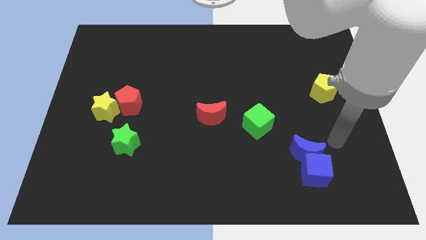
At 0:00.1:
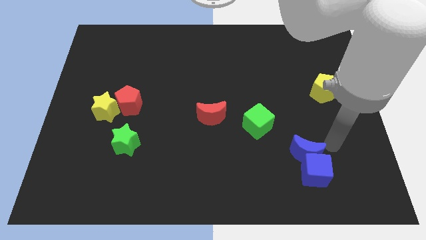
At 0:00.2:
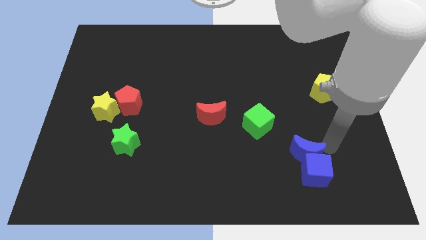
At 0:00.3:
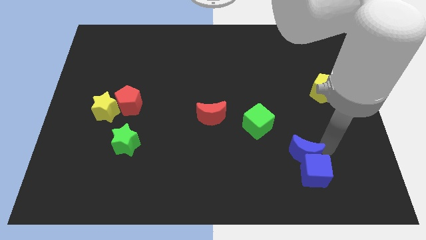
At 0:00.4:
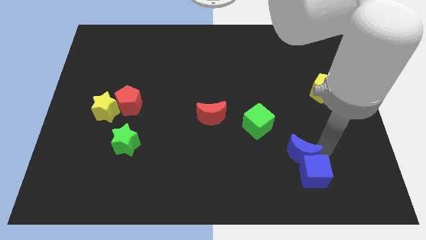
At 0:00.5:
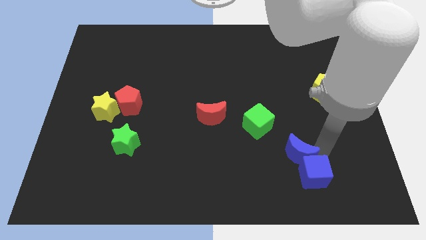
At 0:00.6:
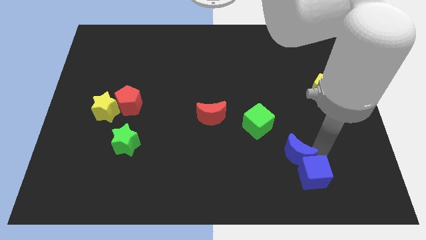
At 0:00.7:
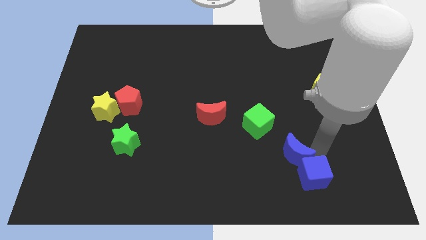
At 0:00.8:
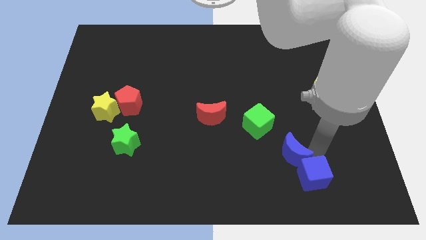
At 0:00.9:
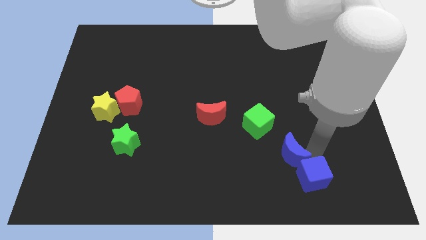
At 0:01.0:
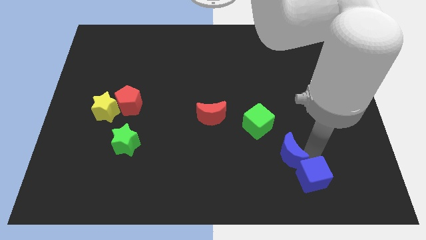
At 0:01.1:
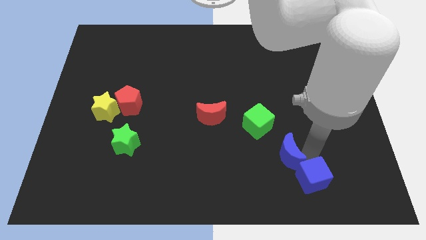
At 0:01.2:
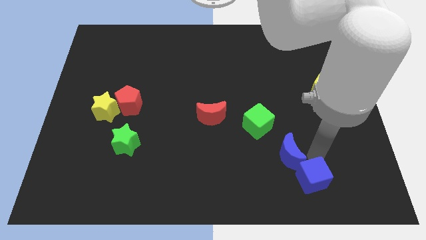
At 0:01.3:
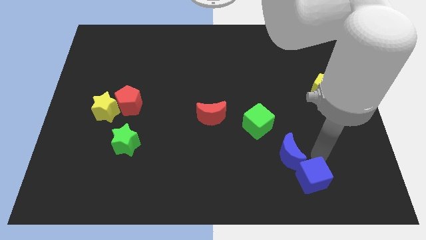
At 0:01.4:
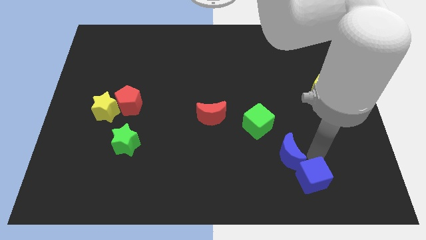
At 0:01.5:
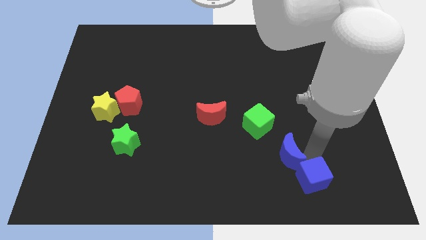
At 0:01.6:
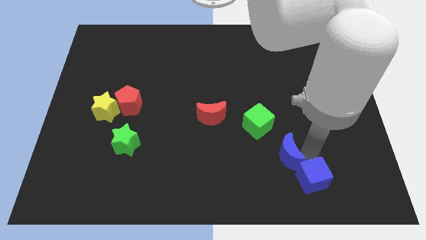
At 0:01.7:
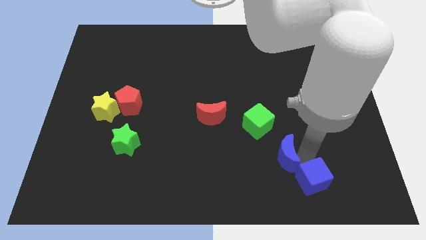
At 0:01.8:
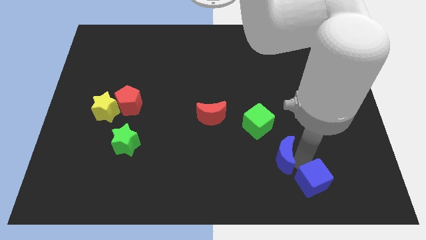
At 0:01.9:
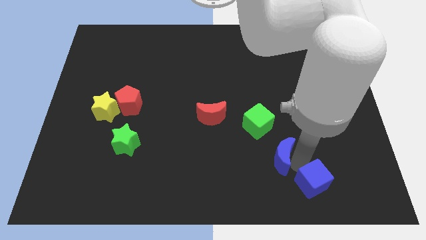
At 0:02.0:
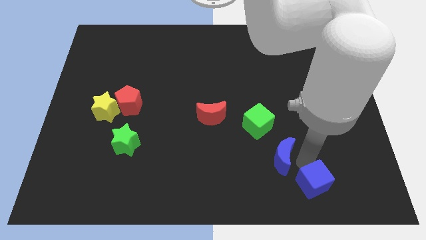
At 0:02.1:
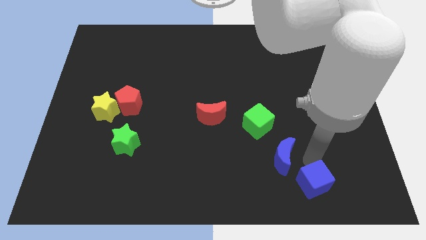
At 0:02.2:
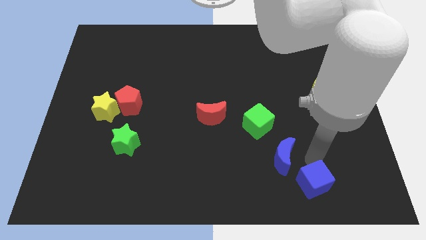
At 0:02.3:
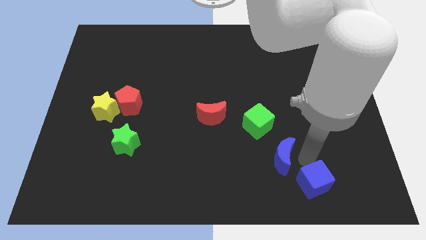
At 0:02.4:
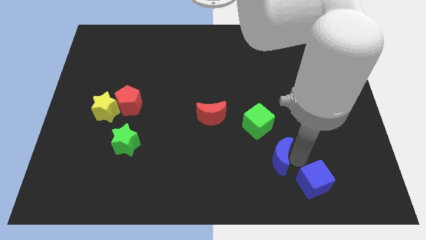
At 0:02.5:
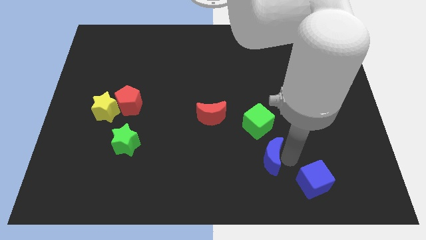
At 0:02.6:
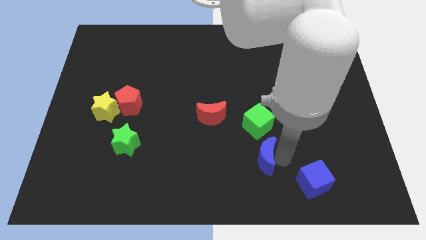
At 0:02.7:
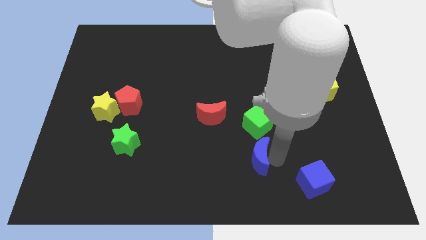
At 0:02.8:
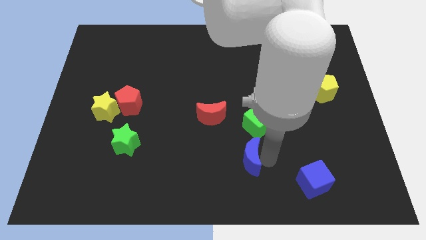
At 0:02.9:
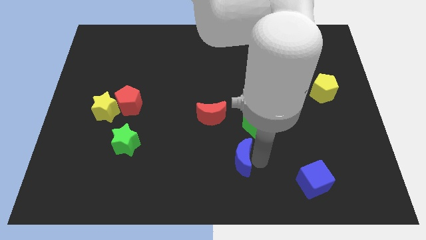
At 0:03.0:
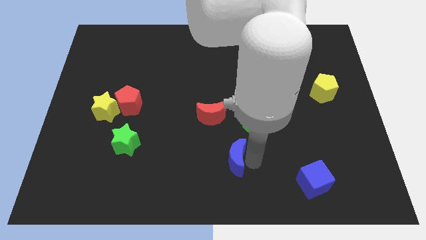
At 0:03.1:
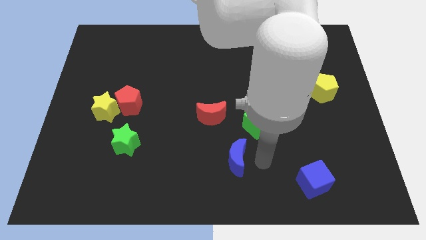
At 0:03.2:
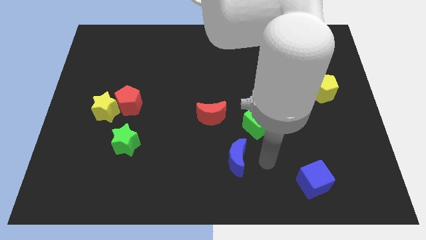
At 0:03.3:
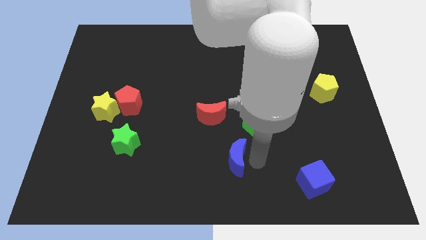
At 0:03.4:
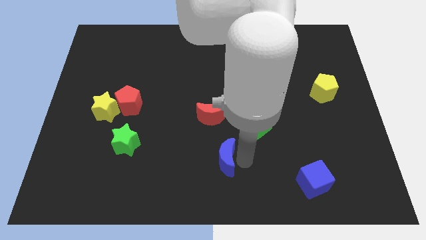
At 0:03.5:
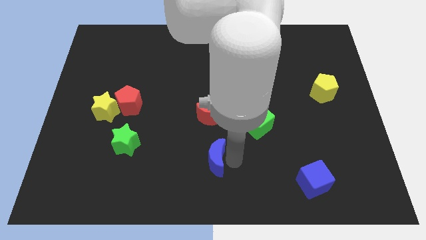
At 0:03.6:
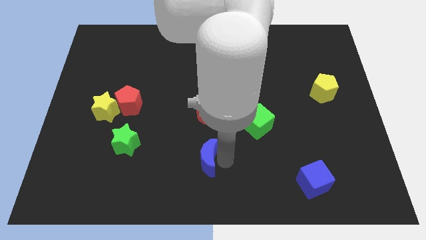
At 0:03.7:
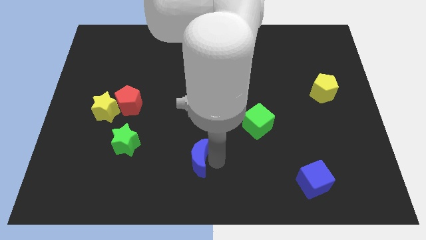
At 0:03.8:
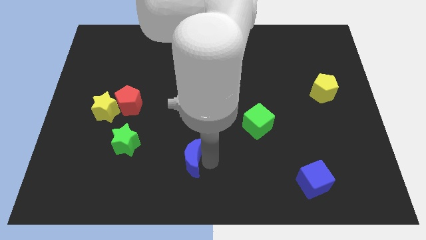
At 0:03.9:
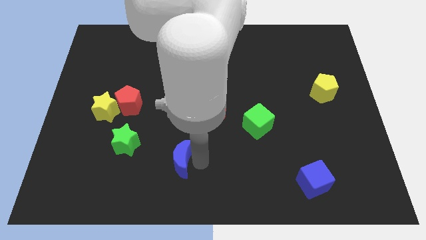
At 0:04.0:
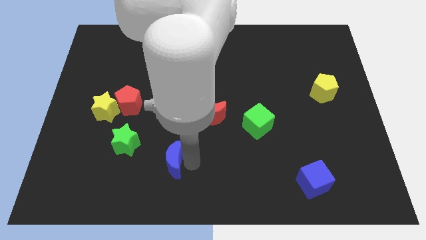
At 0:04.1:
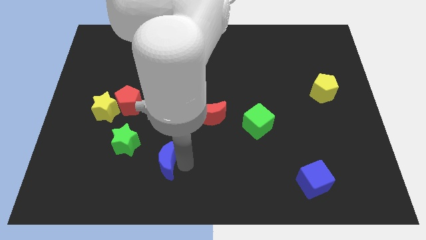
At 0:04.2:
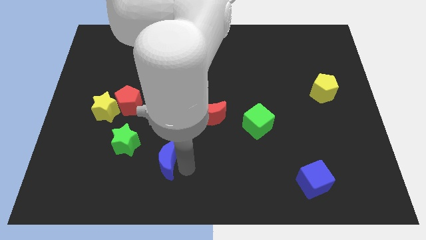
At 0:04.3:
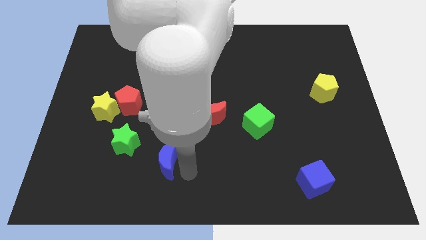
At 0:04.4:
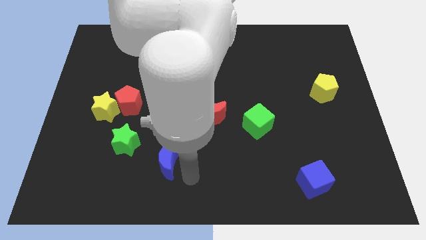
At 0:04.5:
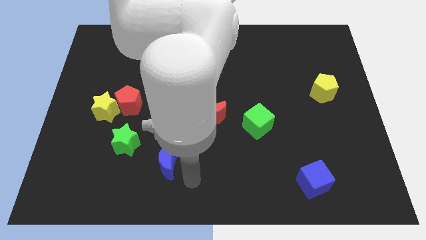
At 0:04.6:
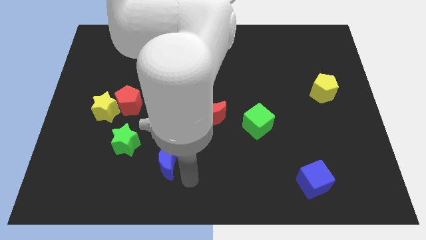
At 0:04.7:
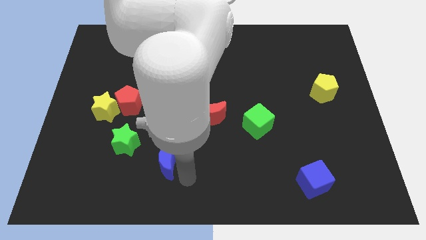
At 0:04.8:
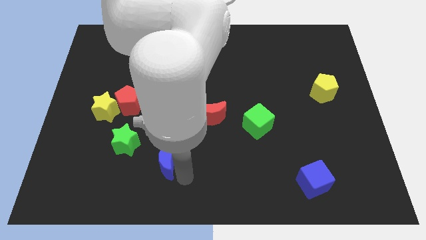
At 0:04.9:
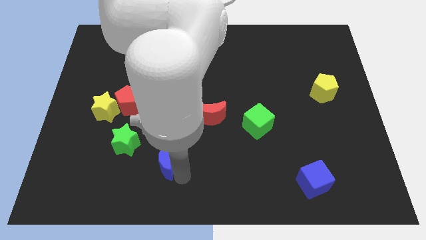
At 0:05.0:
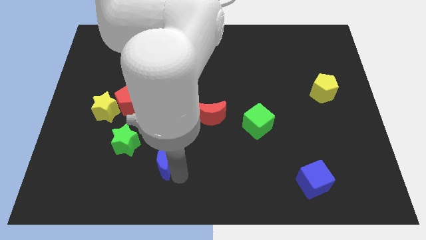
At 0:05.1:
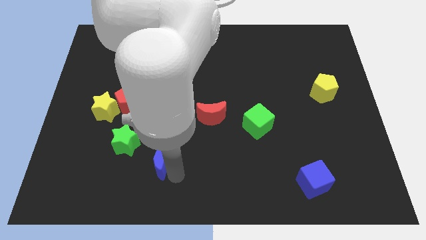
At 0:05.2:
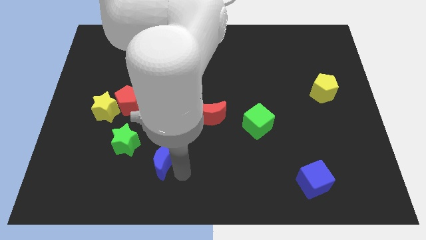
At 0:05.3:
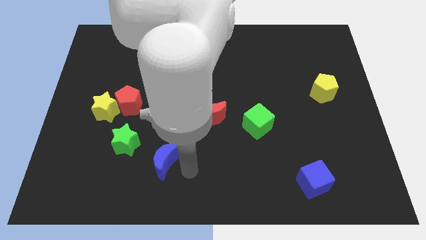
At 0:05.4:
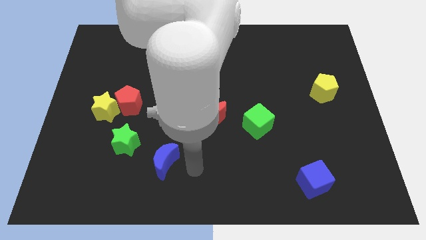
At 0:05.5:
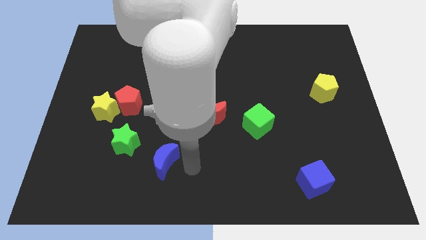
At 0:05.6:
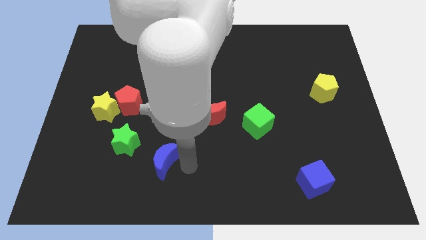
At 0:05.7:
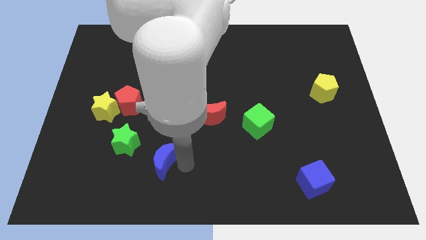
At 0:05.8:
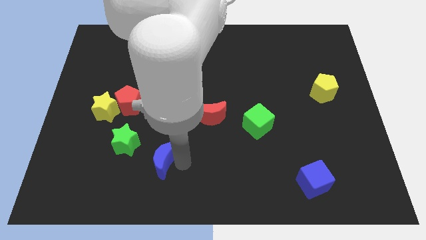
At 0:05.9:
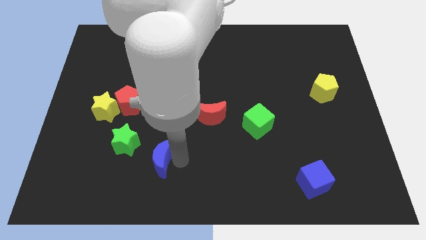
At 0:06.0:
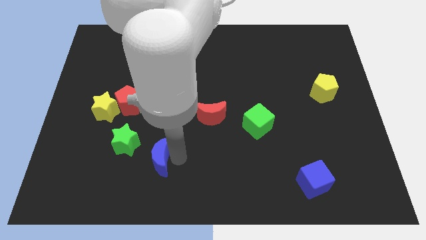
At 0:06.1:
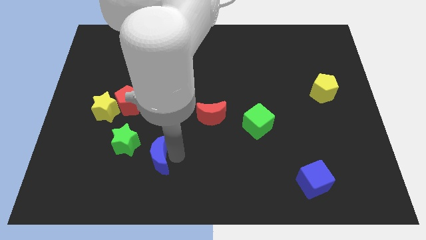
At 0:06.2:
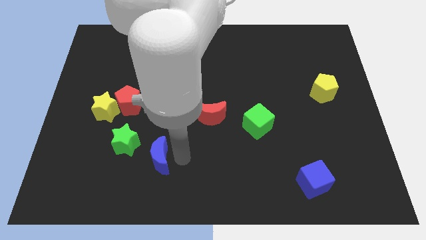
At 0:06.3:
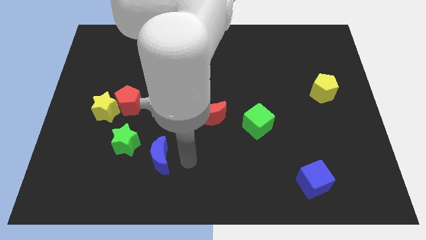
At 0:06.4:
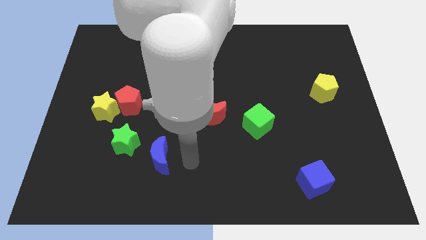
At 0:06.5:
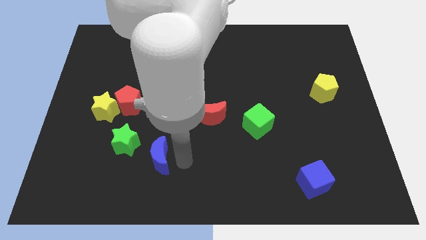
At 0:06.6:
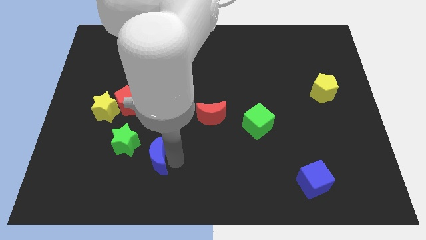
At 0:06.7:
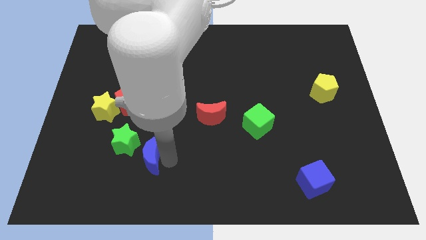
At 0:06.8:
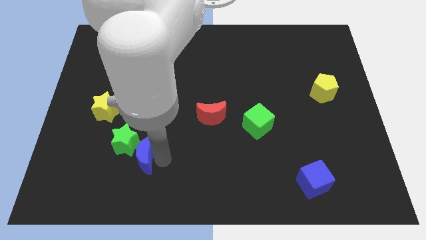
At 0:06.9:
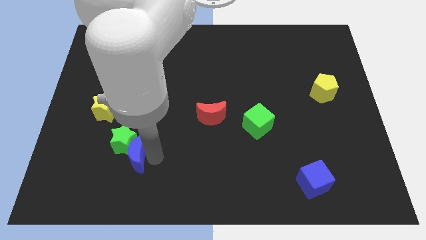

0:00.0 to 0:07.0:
put the blue moon to the bottom side of the red pentagon
